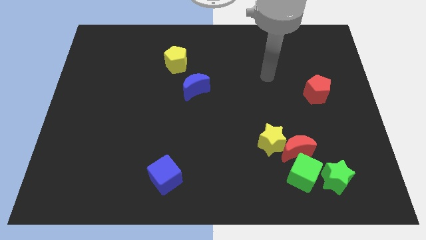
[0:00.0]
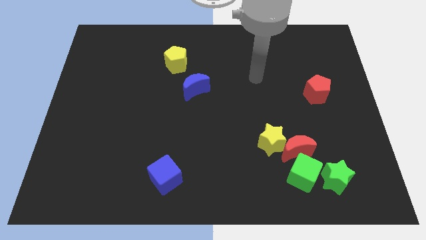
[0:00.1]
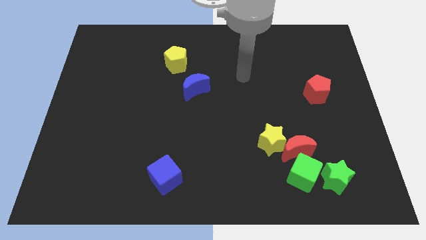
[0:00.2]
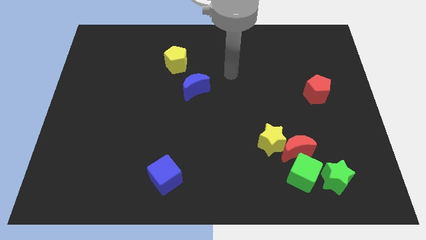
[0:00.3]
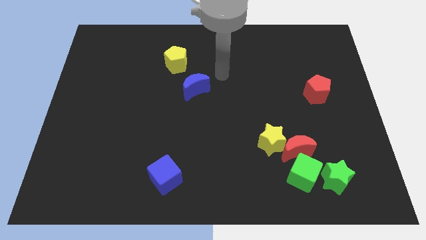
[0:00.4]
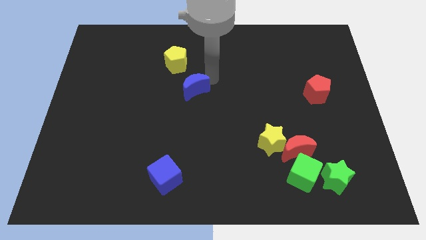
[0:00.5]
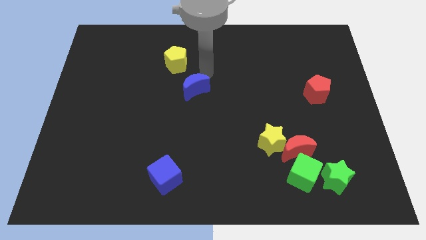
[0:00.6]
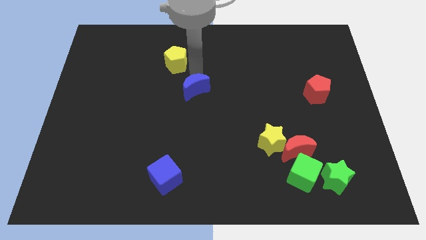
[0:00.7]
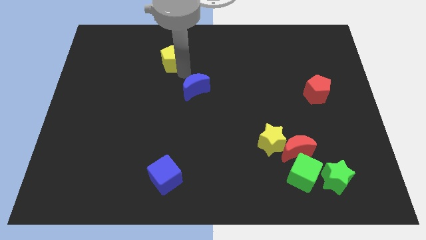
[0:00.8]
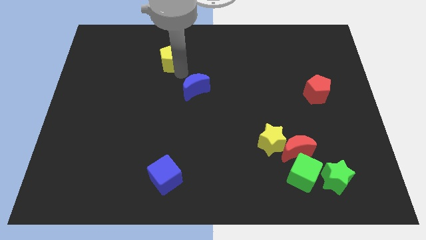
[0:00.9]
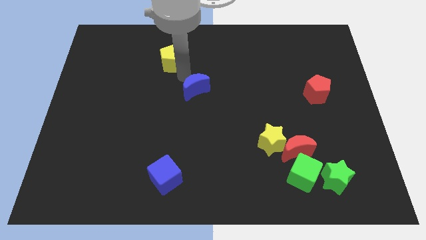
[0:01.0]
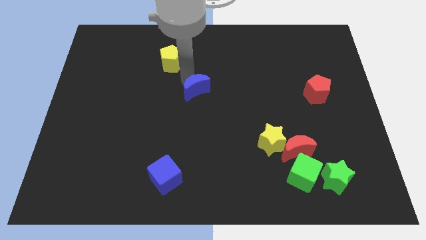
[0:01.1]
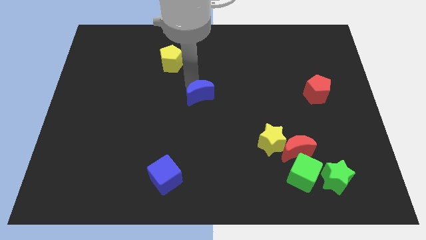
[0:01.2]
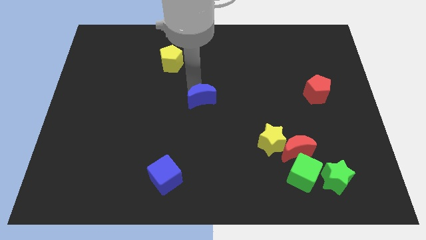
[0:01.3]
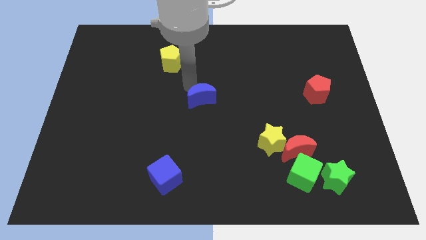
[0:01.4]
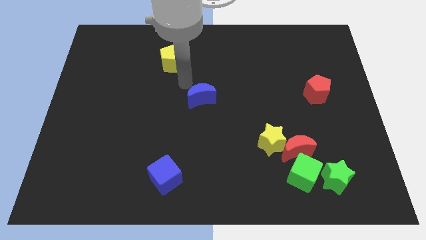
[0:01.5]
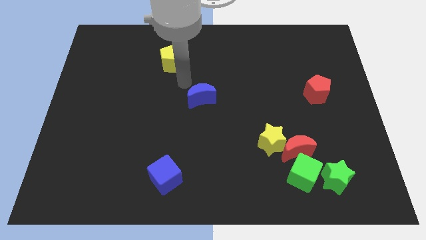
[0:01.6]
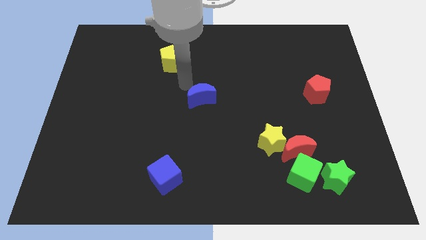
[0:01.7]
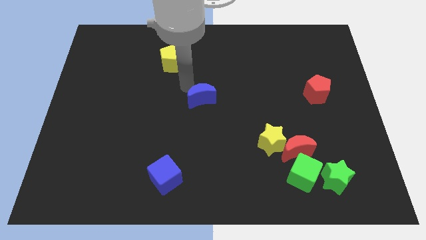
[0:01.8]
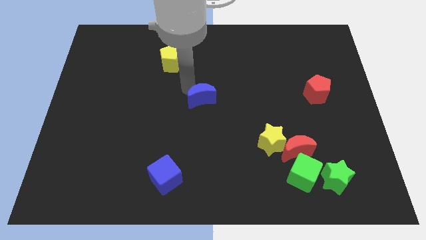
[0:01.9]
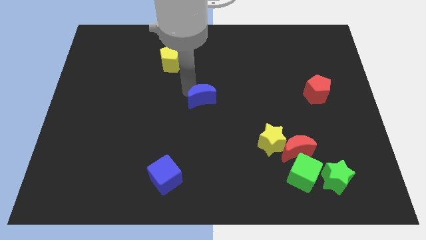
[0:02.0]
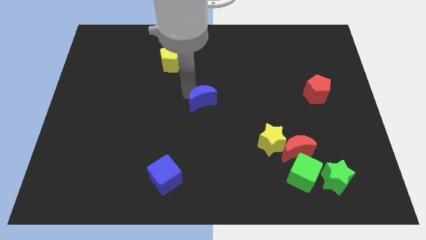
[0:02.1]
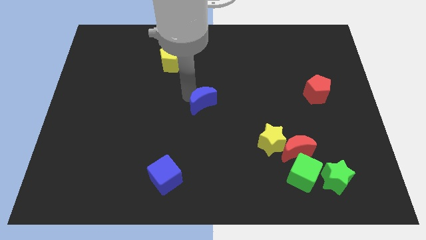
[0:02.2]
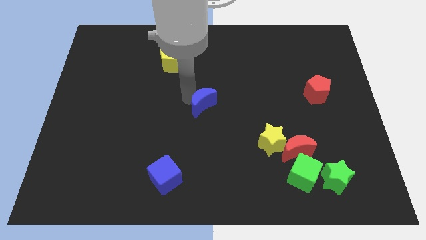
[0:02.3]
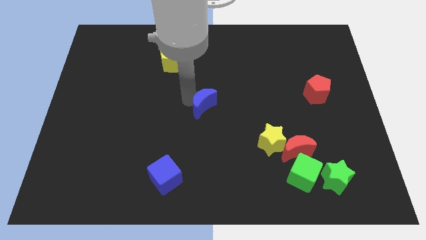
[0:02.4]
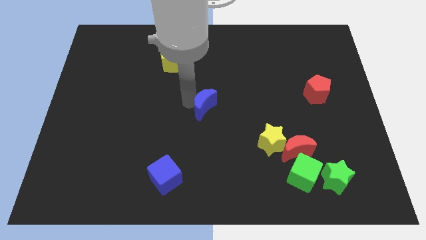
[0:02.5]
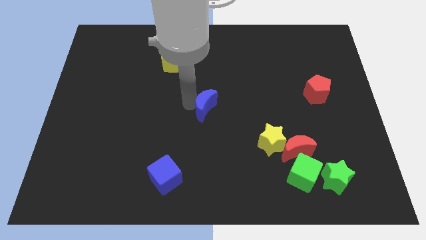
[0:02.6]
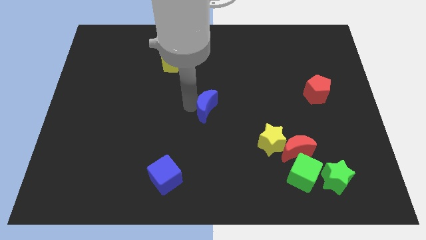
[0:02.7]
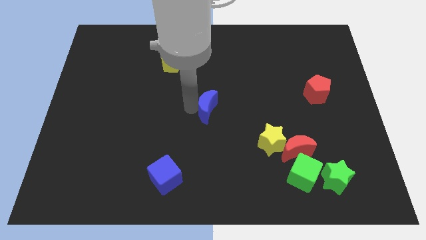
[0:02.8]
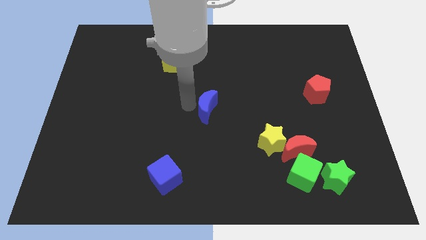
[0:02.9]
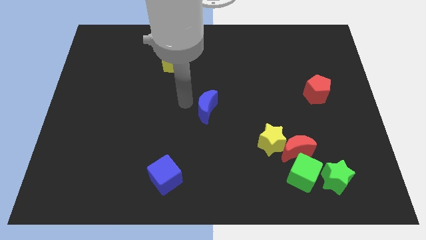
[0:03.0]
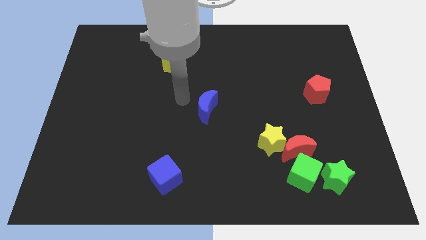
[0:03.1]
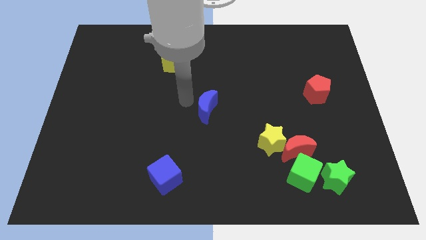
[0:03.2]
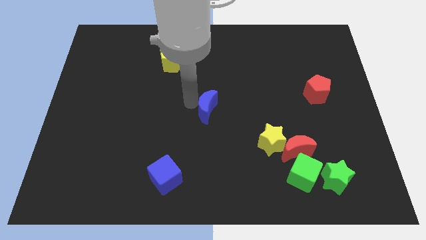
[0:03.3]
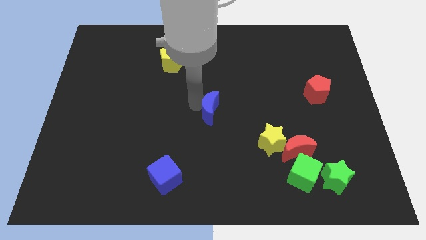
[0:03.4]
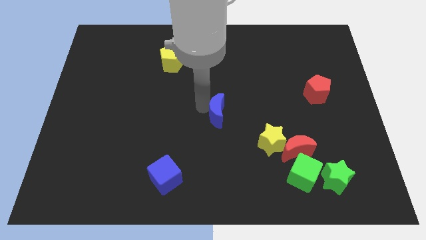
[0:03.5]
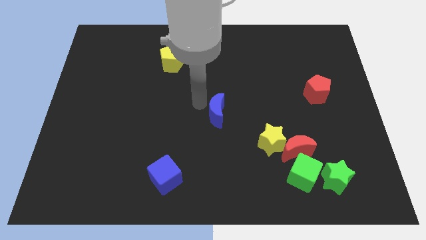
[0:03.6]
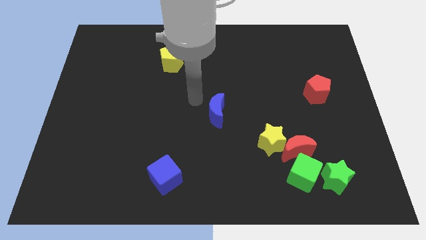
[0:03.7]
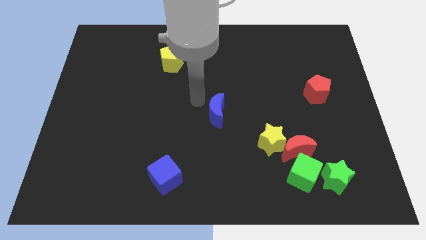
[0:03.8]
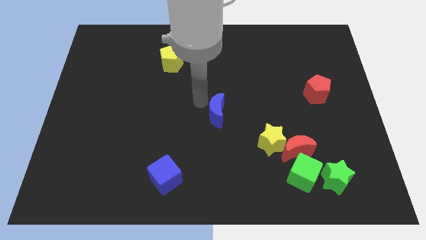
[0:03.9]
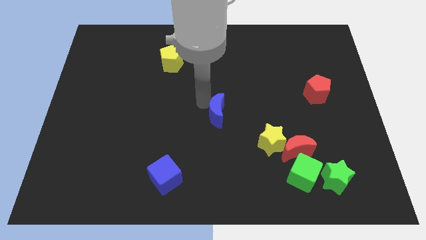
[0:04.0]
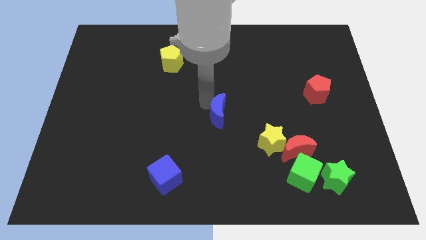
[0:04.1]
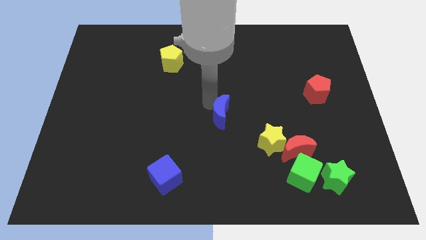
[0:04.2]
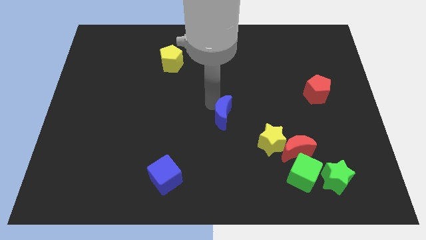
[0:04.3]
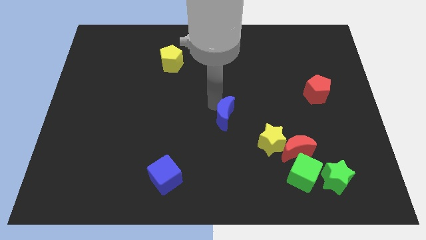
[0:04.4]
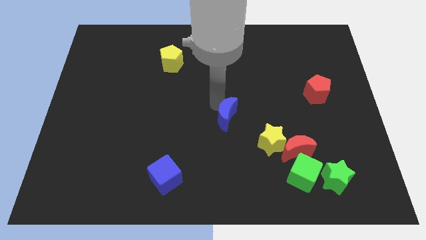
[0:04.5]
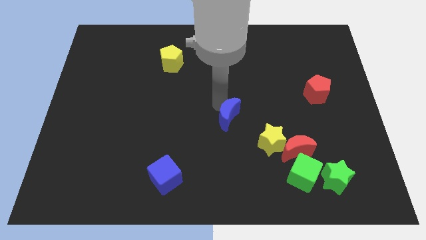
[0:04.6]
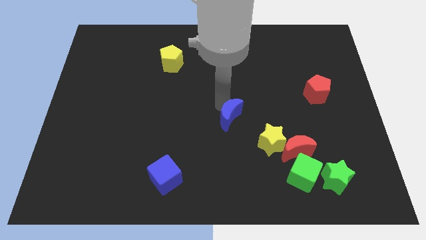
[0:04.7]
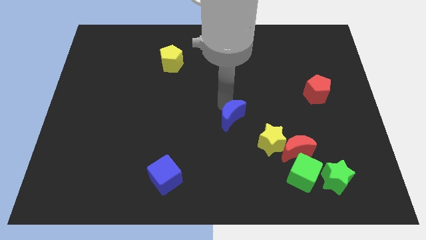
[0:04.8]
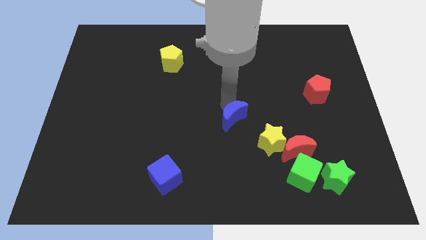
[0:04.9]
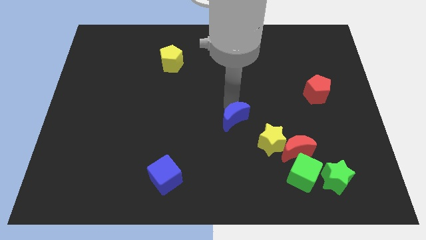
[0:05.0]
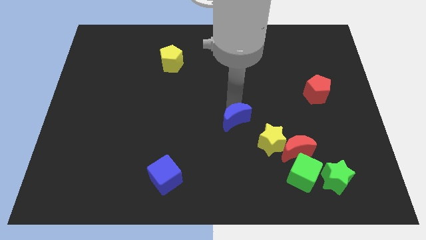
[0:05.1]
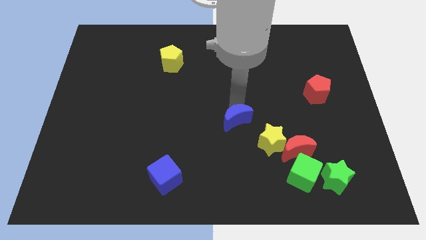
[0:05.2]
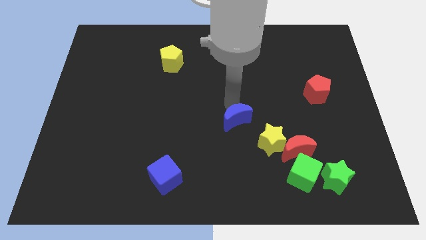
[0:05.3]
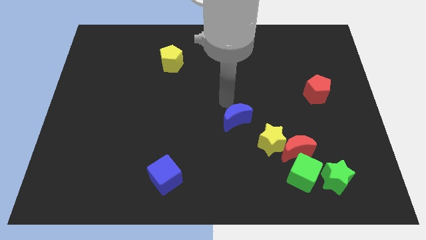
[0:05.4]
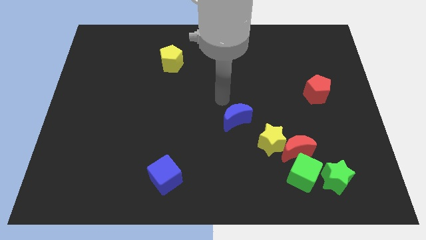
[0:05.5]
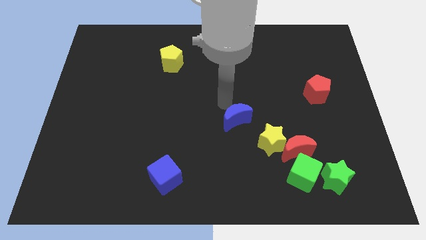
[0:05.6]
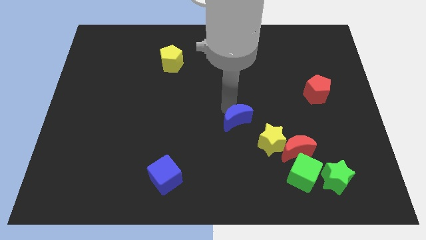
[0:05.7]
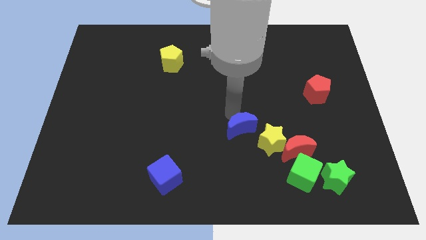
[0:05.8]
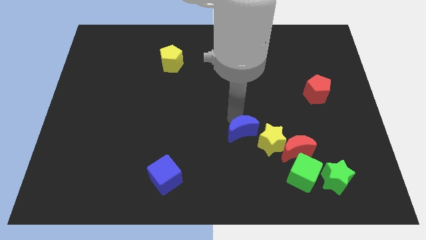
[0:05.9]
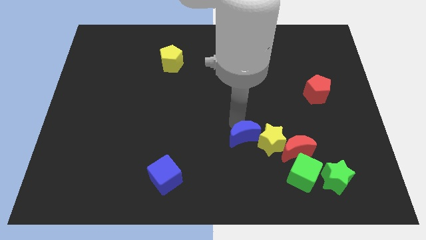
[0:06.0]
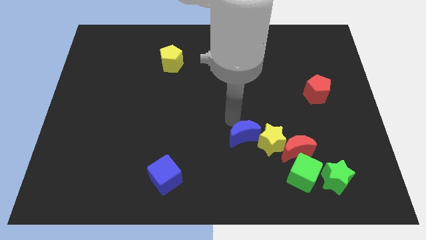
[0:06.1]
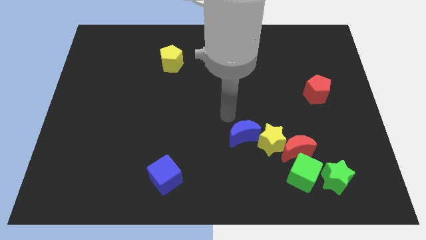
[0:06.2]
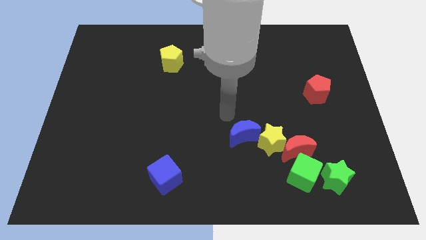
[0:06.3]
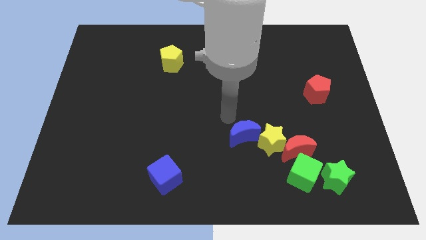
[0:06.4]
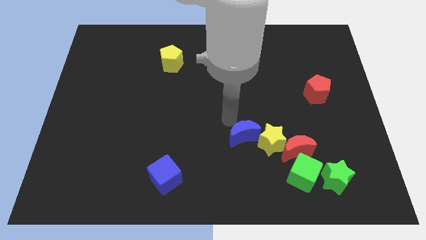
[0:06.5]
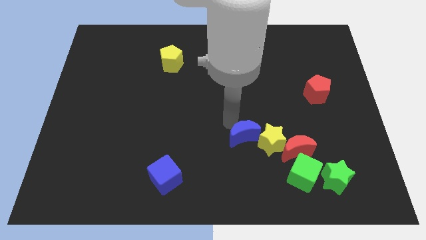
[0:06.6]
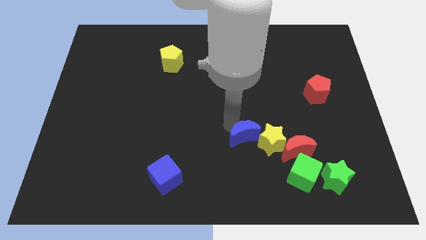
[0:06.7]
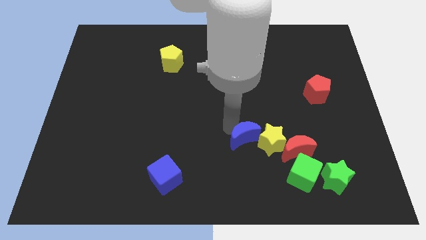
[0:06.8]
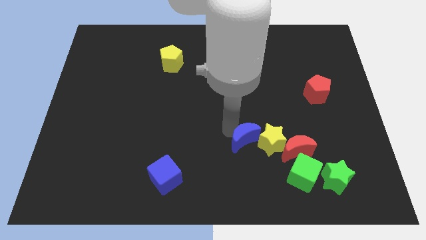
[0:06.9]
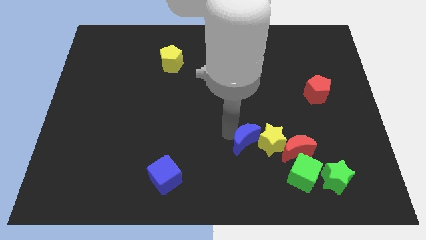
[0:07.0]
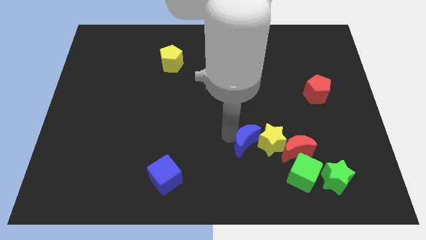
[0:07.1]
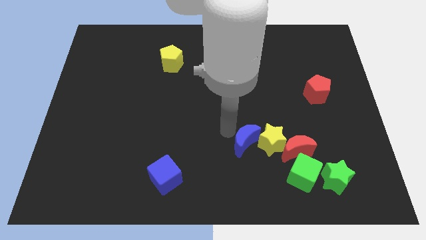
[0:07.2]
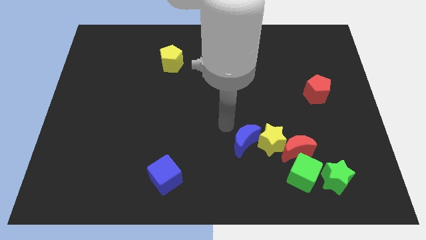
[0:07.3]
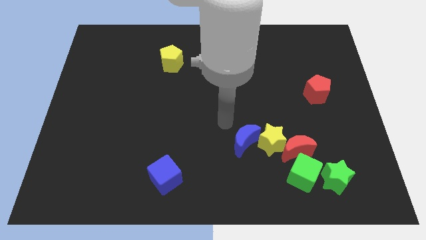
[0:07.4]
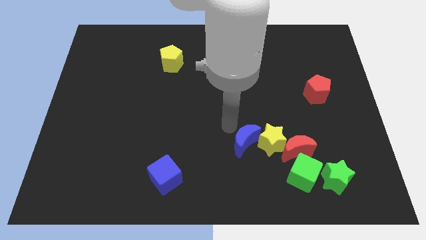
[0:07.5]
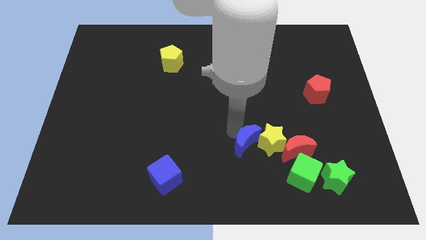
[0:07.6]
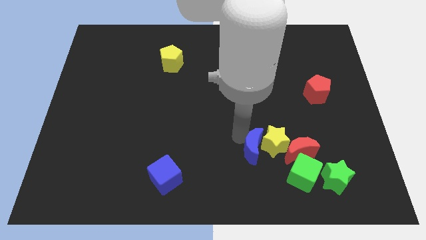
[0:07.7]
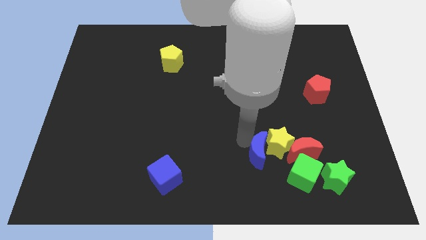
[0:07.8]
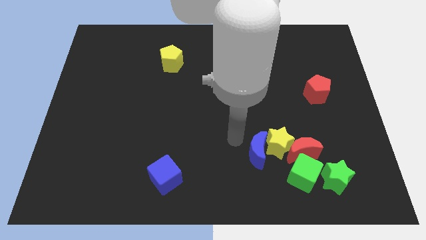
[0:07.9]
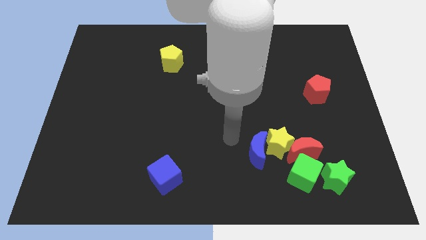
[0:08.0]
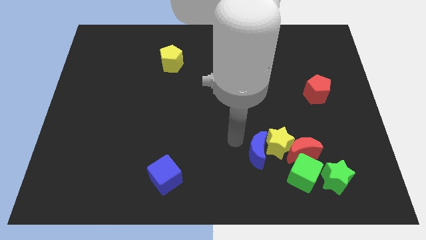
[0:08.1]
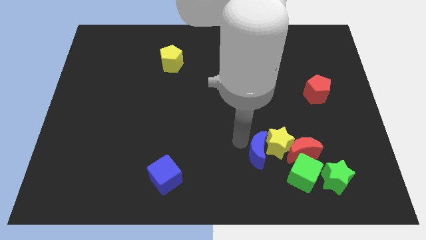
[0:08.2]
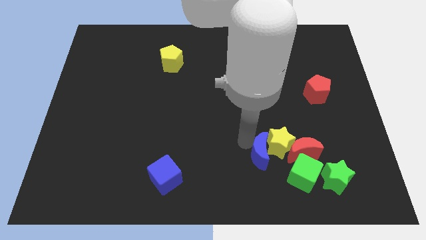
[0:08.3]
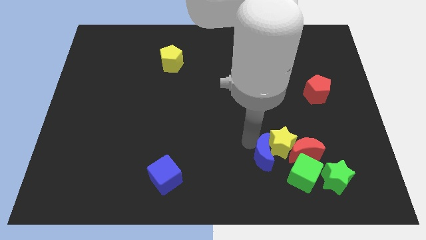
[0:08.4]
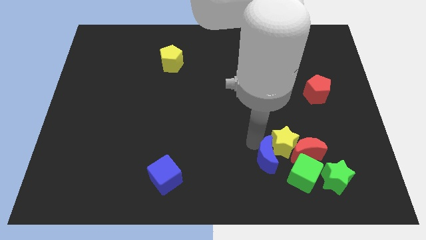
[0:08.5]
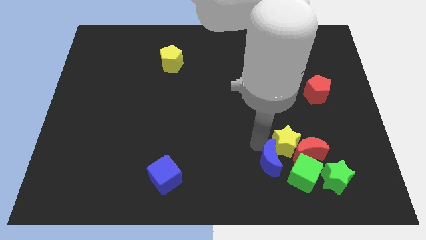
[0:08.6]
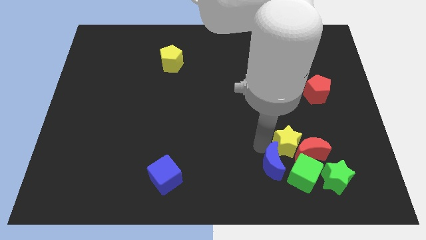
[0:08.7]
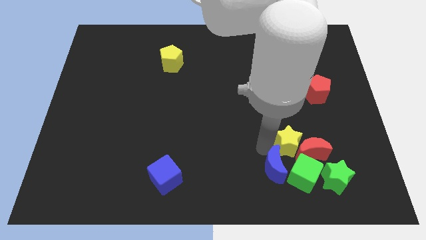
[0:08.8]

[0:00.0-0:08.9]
slide the blue moon to the green cube
